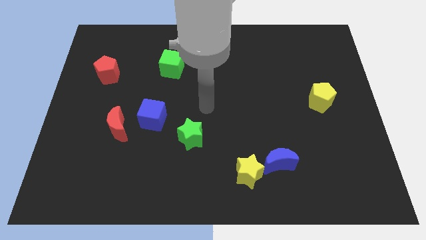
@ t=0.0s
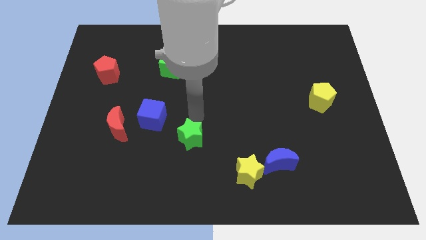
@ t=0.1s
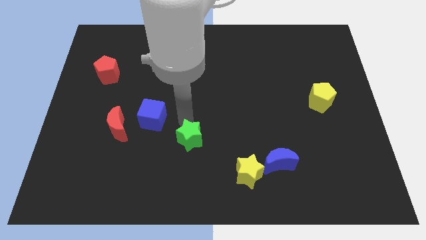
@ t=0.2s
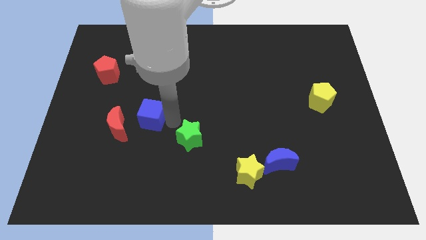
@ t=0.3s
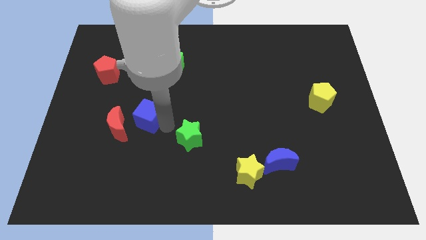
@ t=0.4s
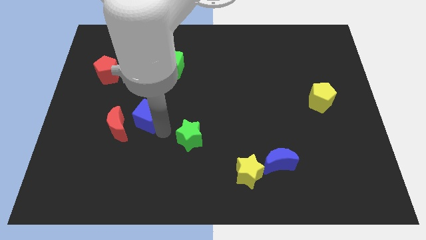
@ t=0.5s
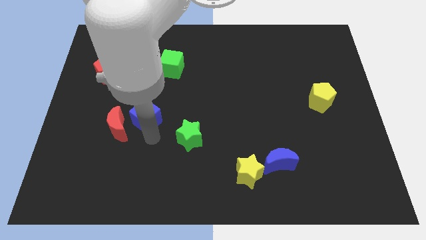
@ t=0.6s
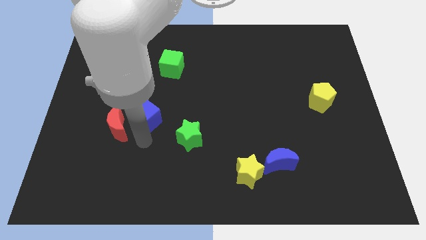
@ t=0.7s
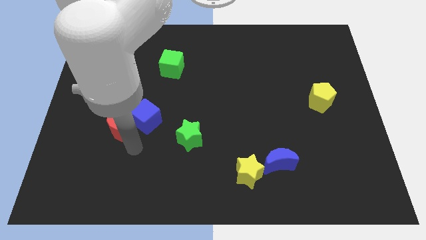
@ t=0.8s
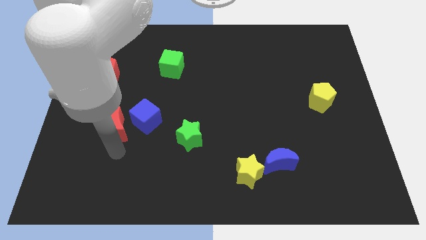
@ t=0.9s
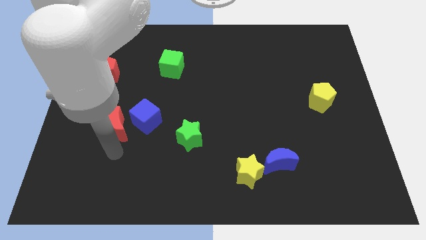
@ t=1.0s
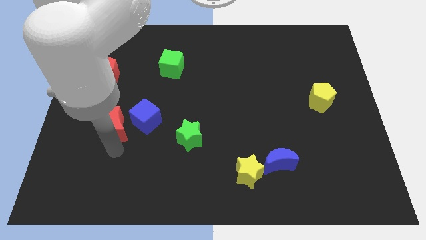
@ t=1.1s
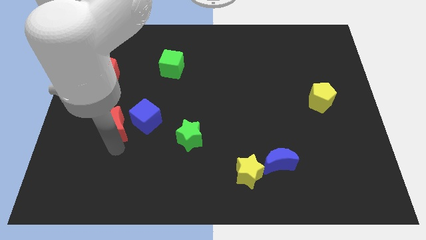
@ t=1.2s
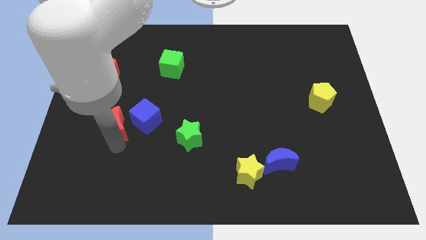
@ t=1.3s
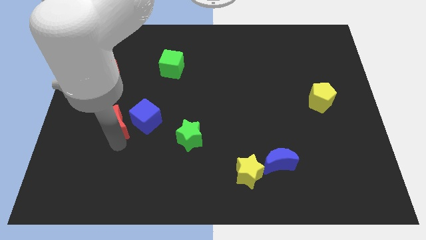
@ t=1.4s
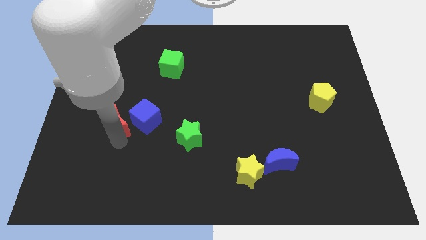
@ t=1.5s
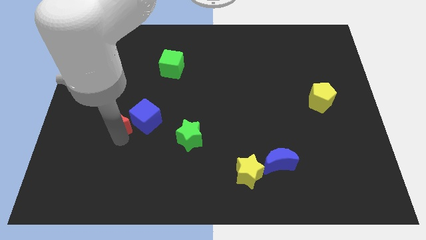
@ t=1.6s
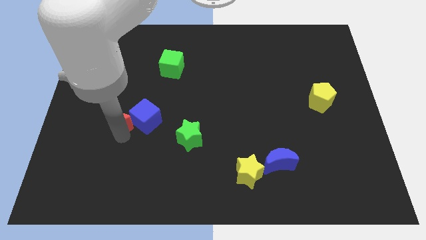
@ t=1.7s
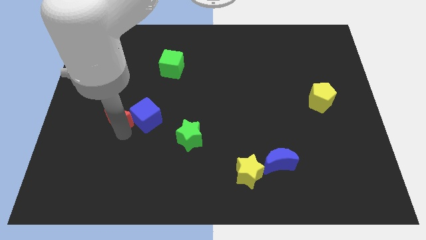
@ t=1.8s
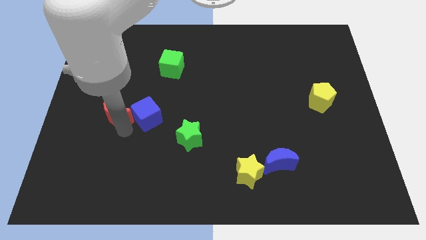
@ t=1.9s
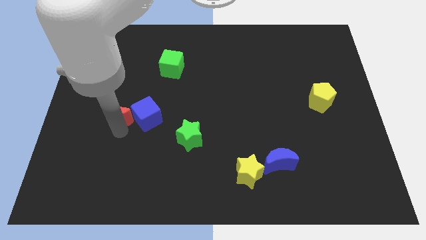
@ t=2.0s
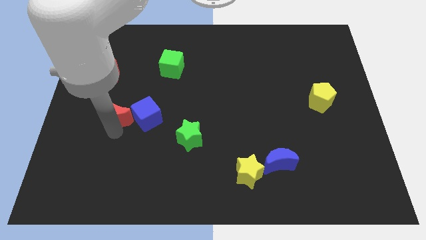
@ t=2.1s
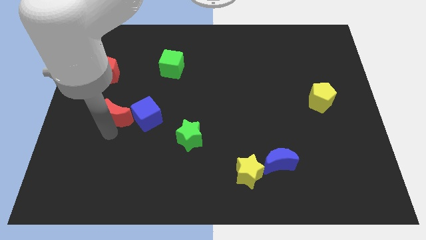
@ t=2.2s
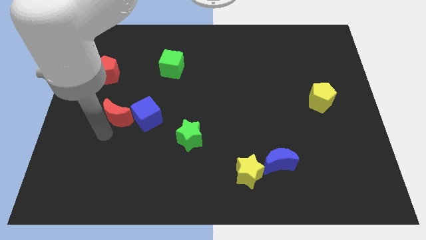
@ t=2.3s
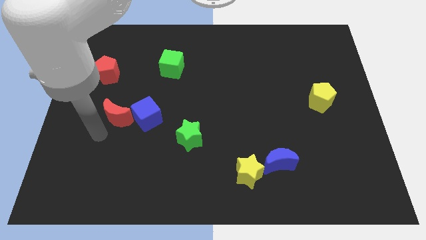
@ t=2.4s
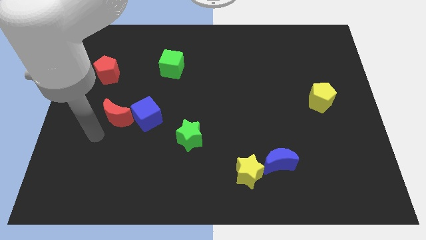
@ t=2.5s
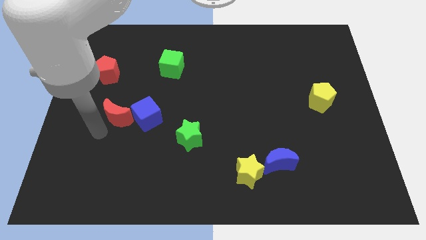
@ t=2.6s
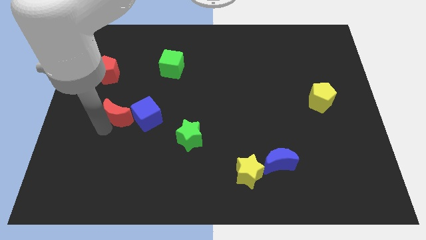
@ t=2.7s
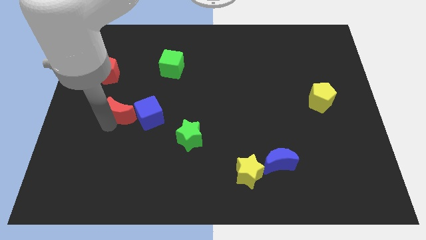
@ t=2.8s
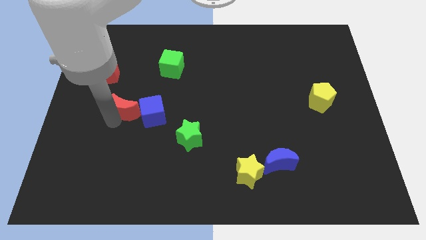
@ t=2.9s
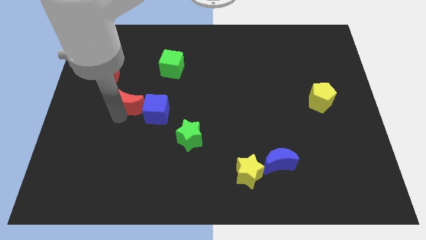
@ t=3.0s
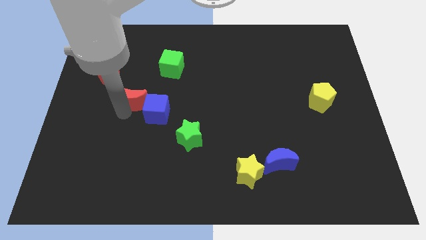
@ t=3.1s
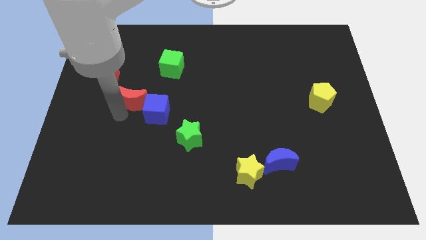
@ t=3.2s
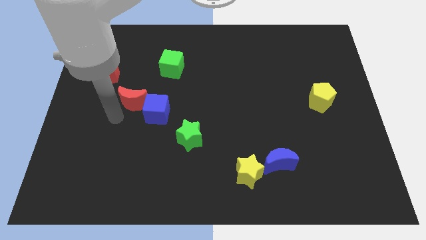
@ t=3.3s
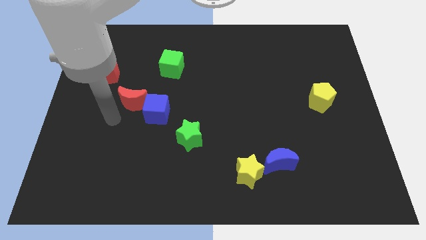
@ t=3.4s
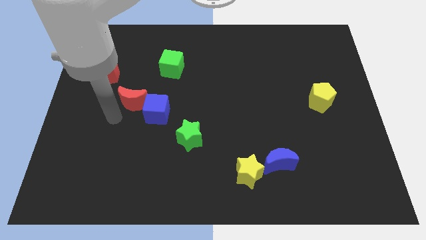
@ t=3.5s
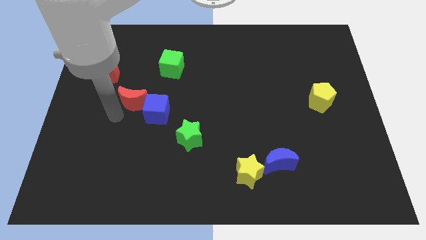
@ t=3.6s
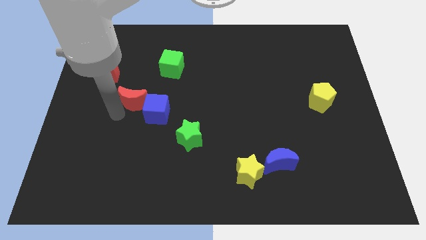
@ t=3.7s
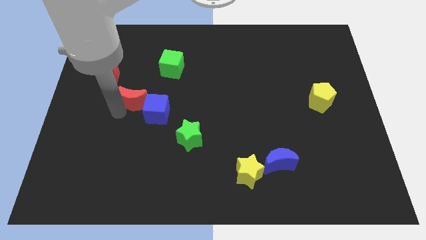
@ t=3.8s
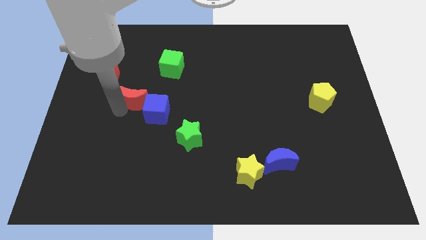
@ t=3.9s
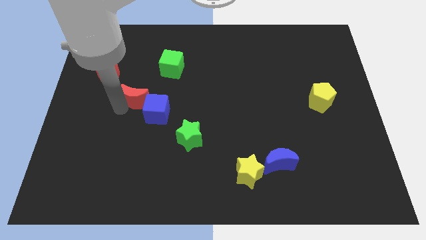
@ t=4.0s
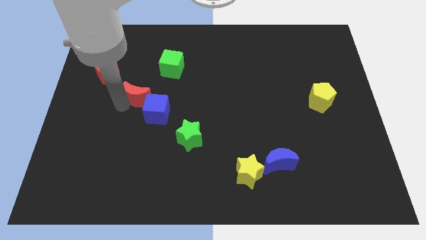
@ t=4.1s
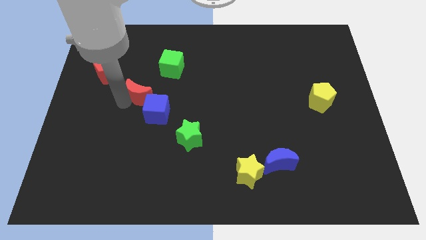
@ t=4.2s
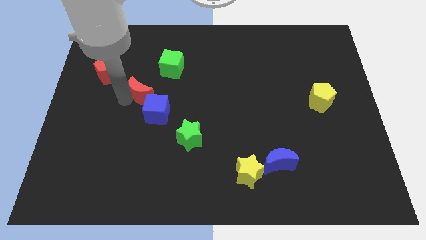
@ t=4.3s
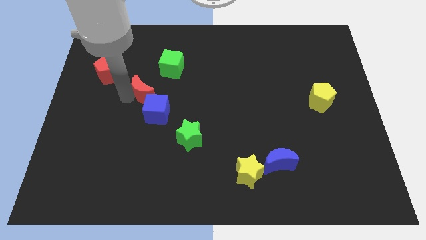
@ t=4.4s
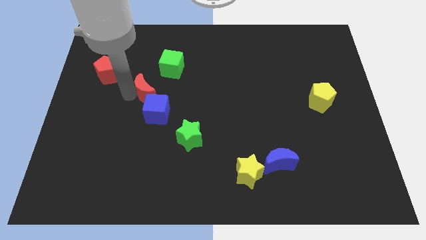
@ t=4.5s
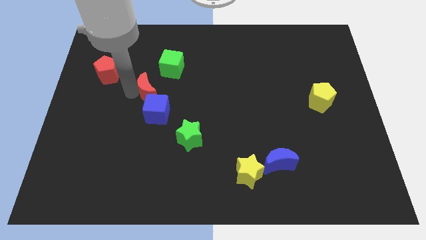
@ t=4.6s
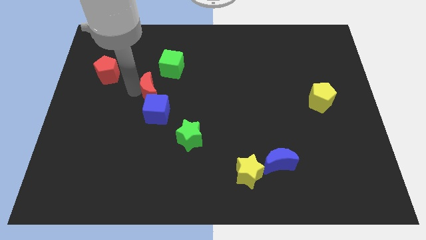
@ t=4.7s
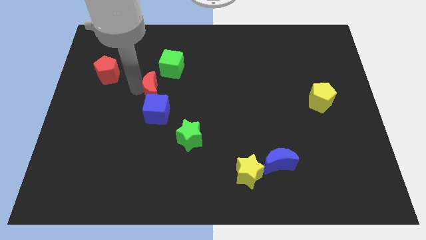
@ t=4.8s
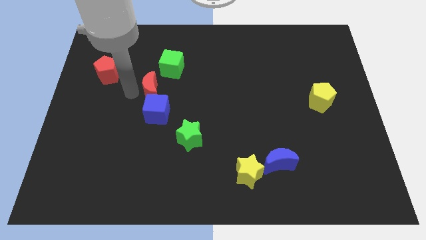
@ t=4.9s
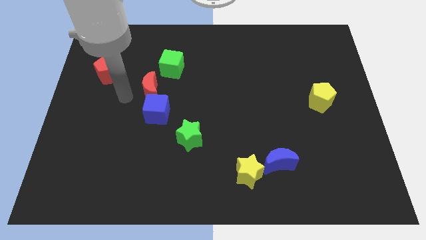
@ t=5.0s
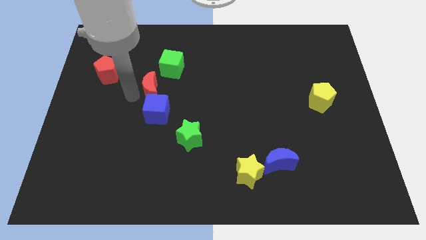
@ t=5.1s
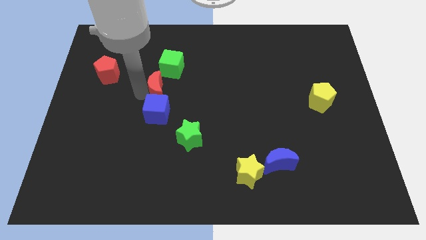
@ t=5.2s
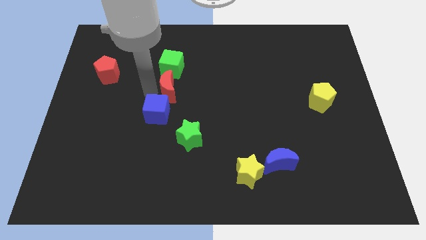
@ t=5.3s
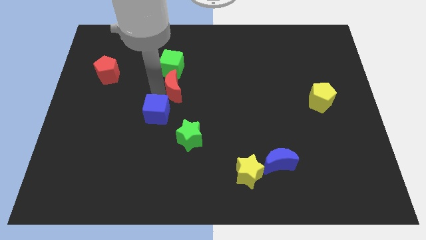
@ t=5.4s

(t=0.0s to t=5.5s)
move the red moon to the bottom right of the green cube

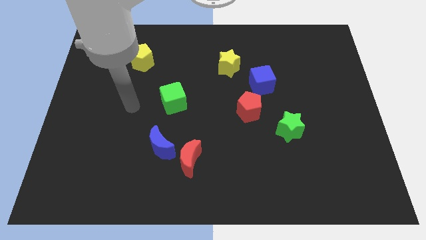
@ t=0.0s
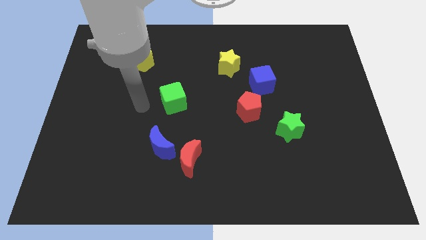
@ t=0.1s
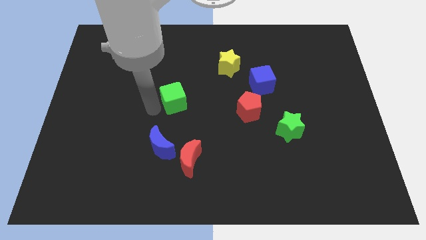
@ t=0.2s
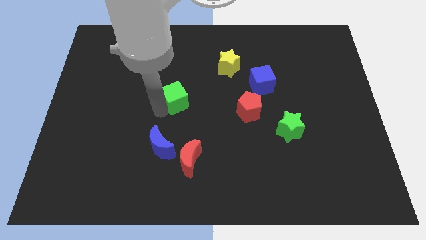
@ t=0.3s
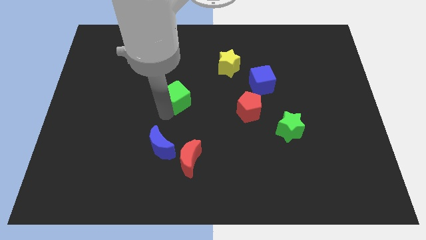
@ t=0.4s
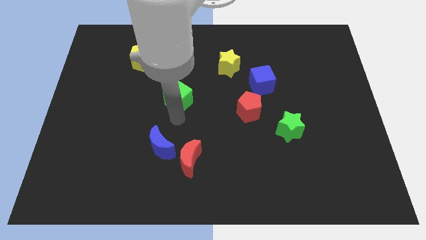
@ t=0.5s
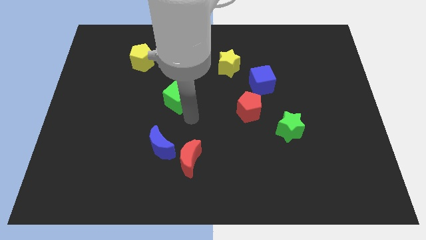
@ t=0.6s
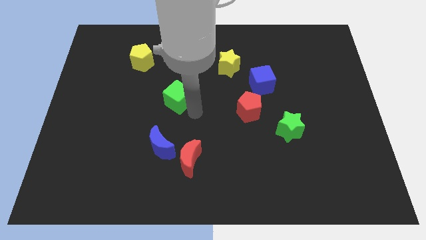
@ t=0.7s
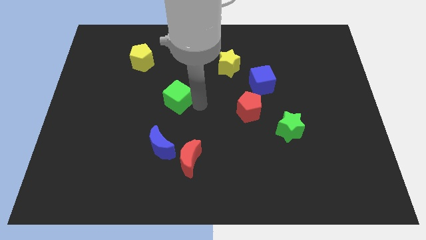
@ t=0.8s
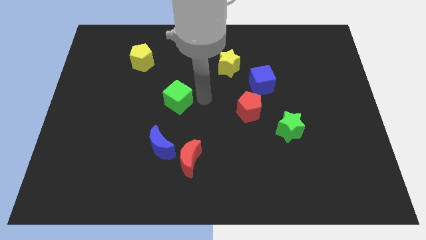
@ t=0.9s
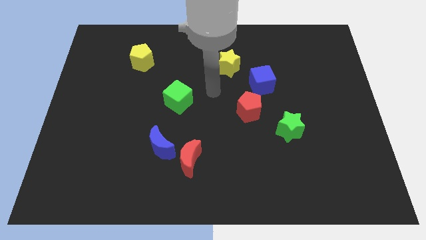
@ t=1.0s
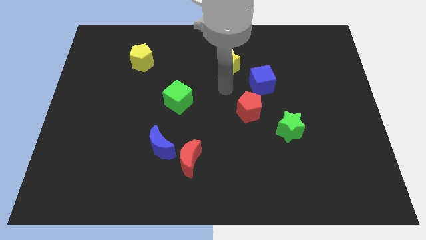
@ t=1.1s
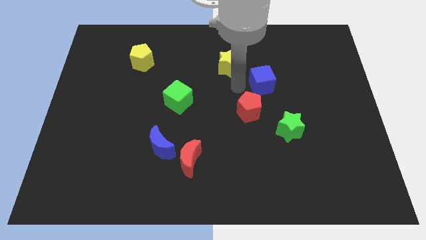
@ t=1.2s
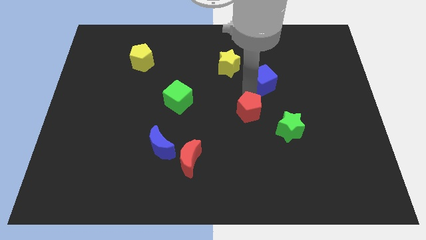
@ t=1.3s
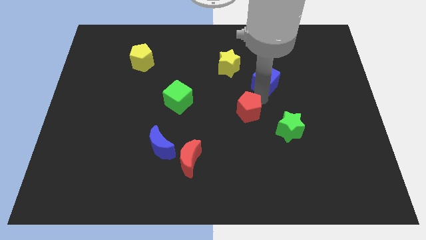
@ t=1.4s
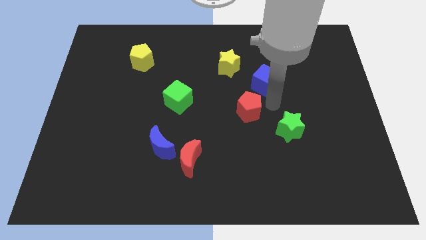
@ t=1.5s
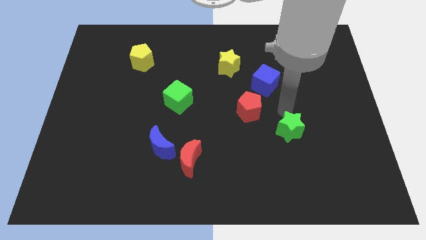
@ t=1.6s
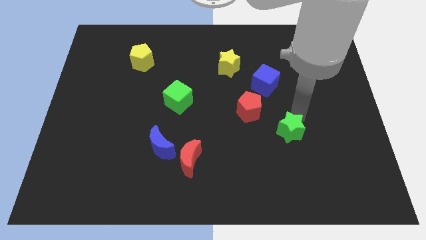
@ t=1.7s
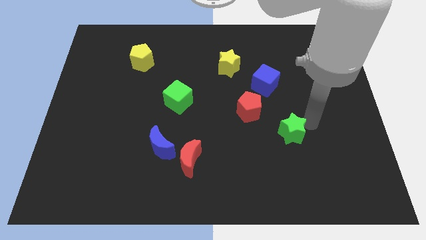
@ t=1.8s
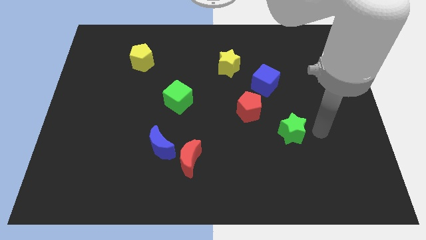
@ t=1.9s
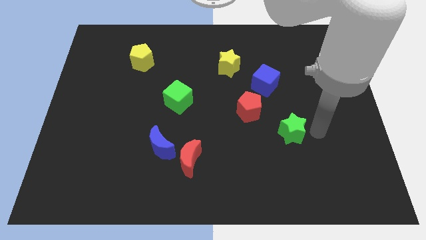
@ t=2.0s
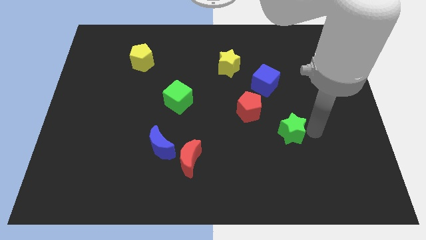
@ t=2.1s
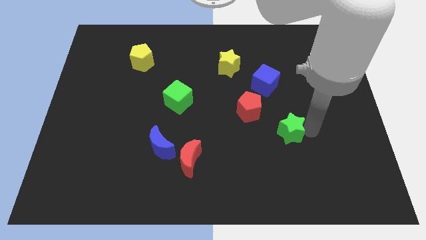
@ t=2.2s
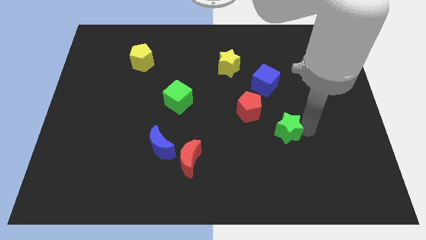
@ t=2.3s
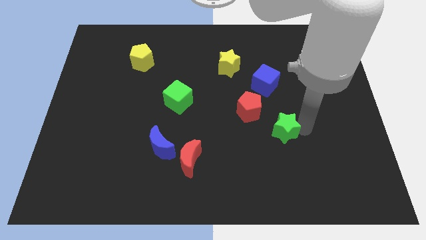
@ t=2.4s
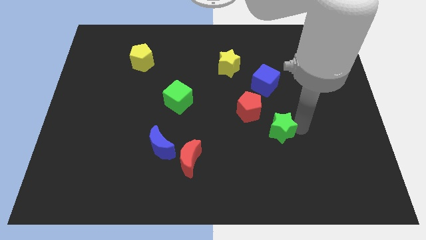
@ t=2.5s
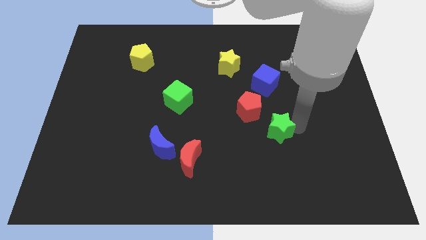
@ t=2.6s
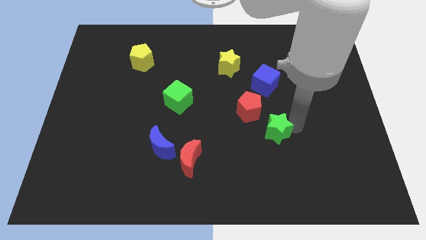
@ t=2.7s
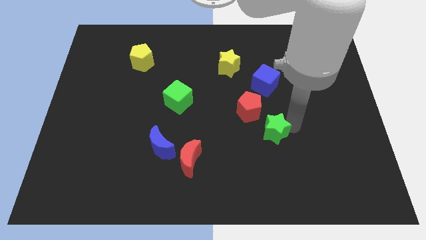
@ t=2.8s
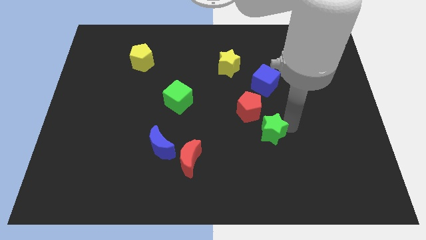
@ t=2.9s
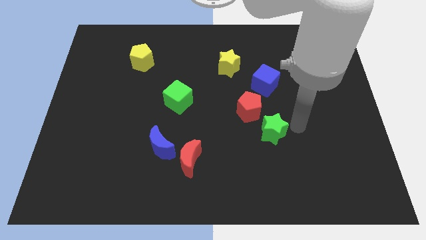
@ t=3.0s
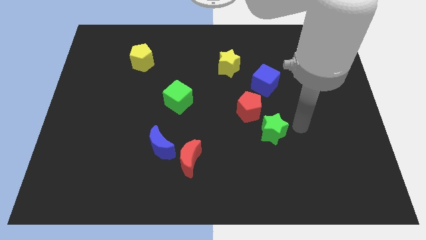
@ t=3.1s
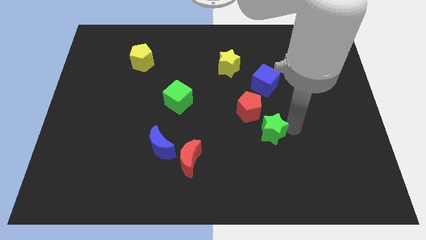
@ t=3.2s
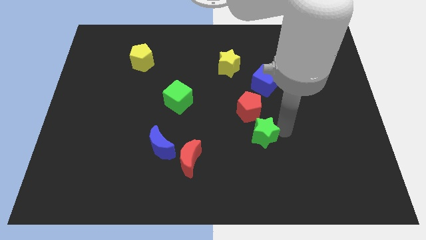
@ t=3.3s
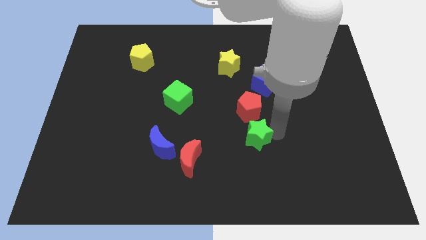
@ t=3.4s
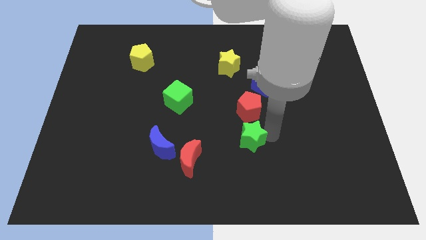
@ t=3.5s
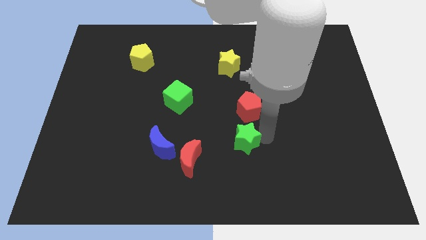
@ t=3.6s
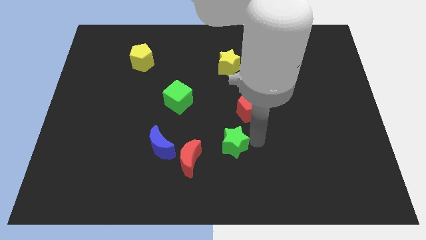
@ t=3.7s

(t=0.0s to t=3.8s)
move the green star to the right of the blue moon
